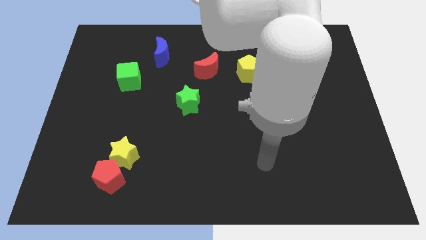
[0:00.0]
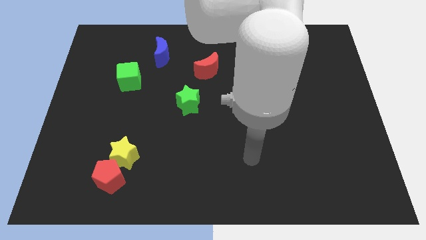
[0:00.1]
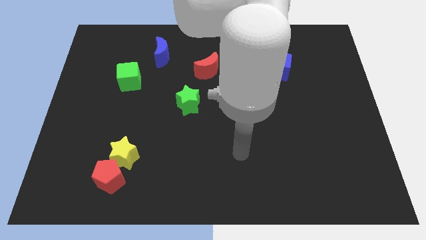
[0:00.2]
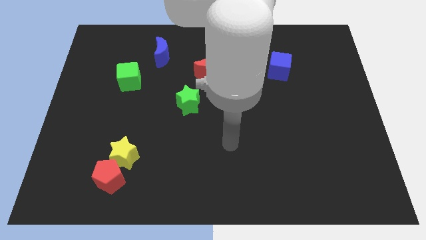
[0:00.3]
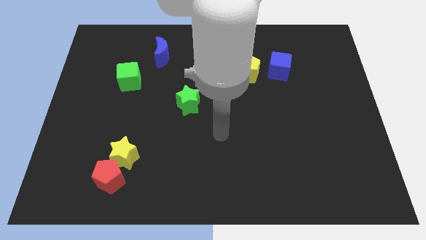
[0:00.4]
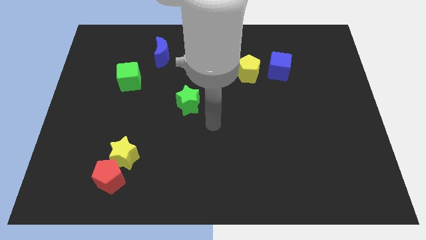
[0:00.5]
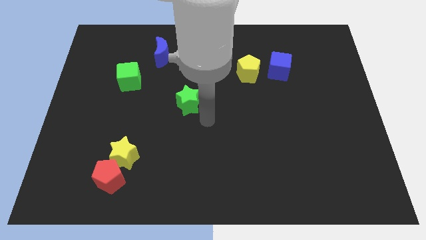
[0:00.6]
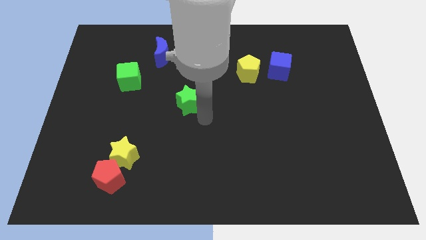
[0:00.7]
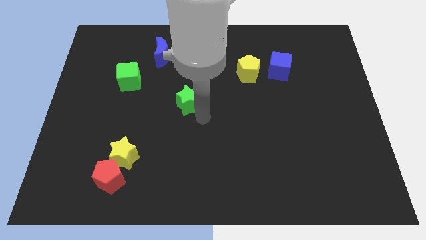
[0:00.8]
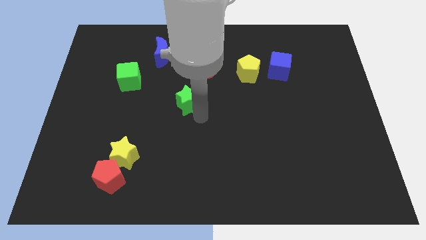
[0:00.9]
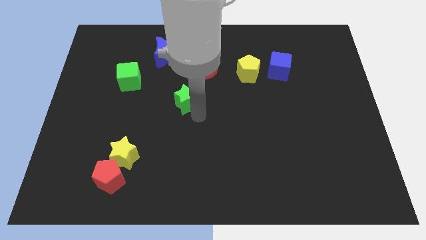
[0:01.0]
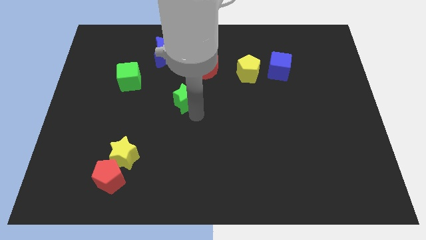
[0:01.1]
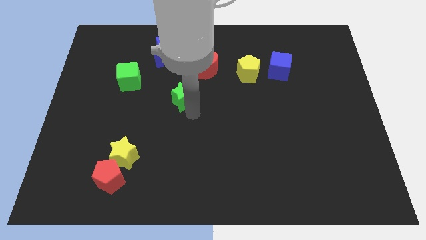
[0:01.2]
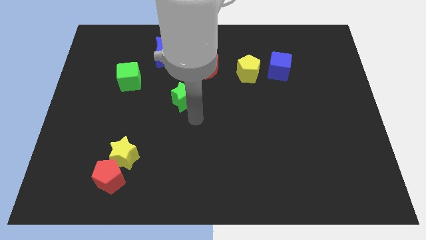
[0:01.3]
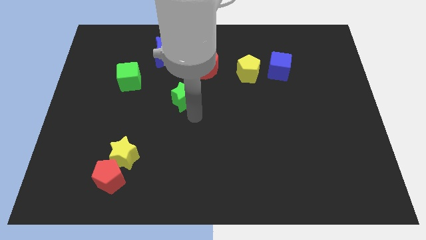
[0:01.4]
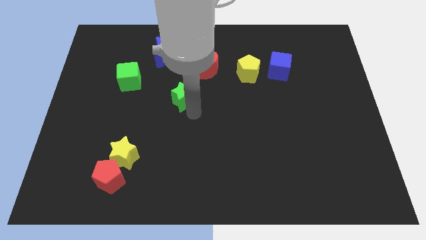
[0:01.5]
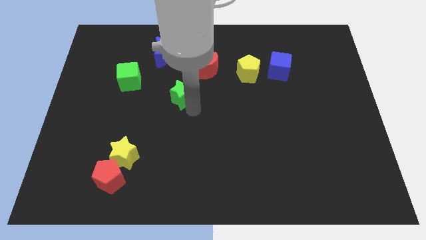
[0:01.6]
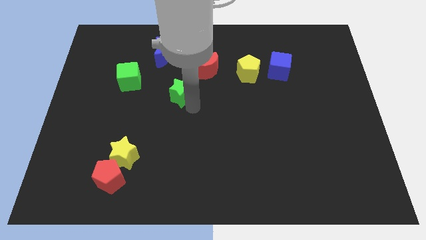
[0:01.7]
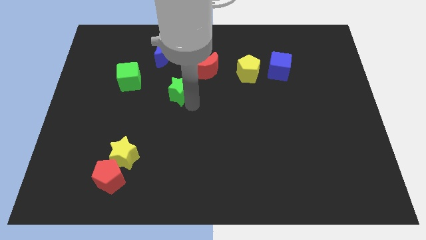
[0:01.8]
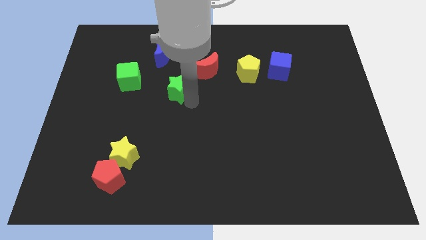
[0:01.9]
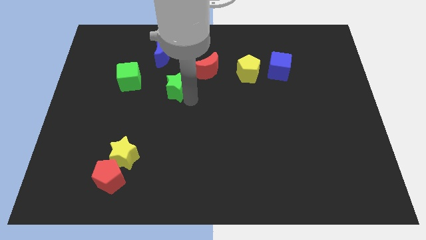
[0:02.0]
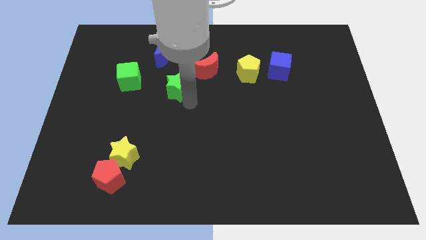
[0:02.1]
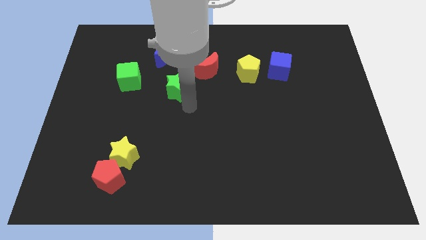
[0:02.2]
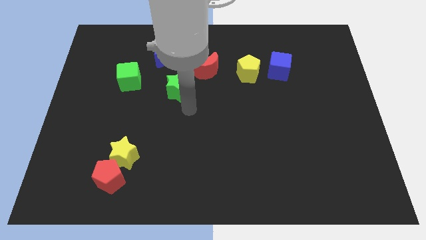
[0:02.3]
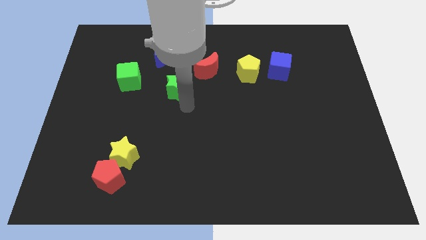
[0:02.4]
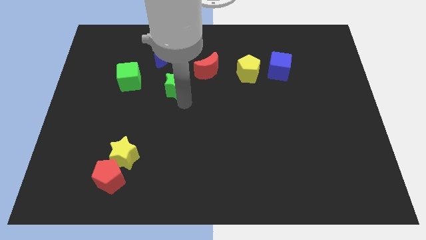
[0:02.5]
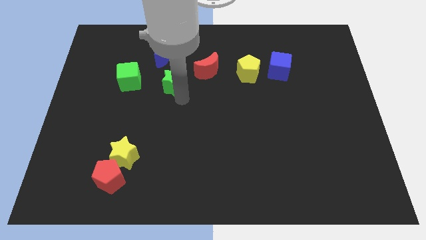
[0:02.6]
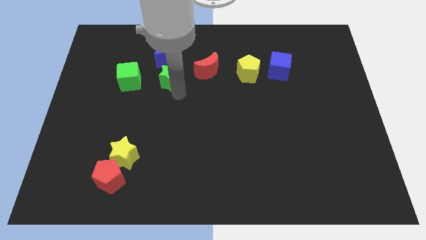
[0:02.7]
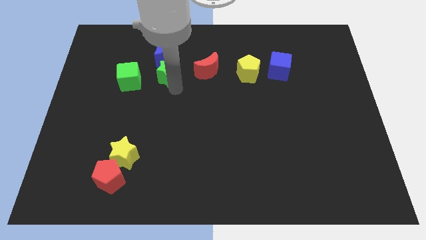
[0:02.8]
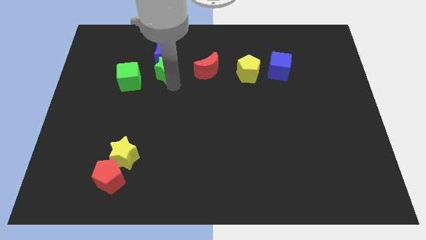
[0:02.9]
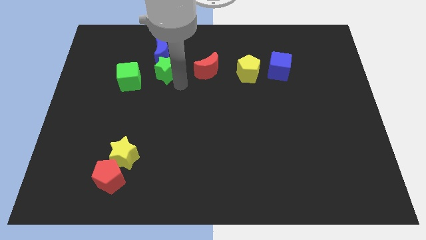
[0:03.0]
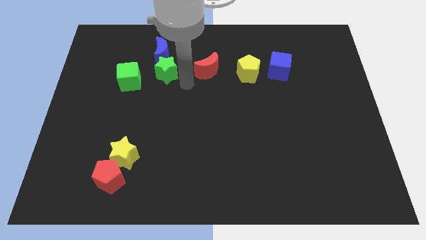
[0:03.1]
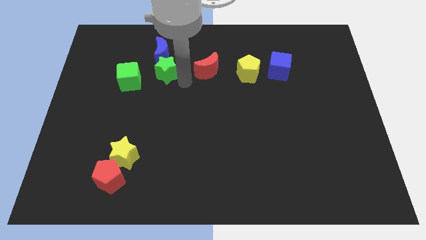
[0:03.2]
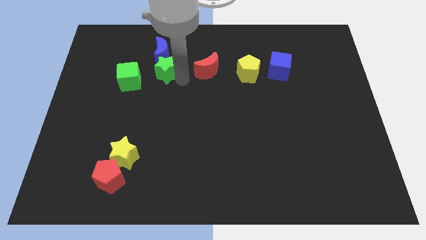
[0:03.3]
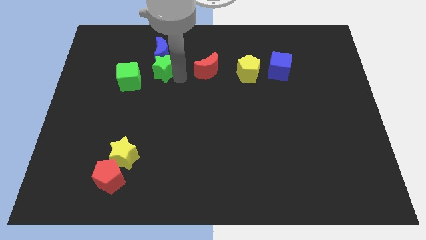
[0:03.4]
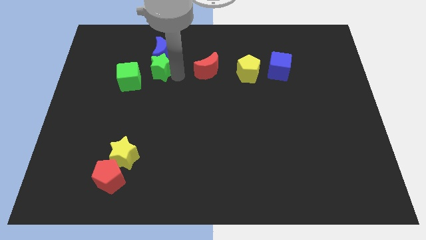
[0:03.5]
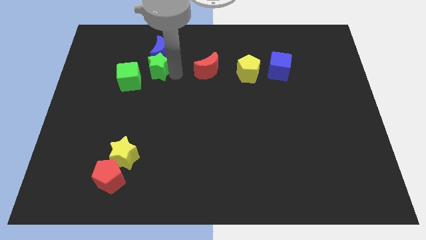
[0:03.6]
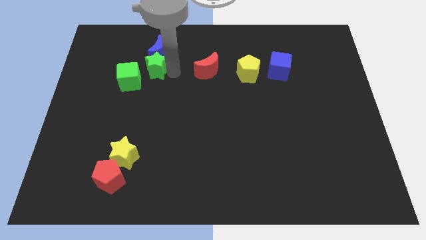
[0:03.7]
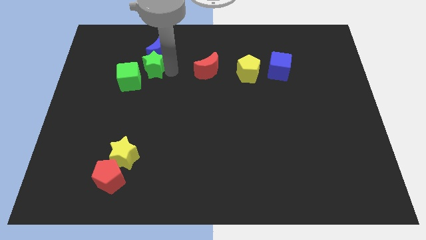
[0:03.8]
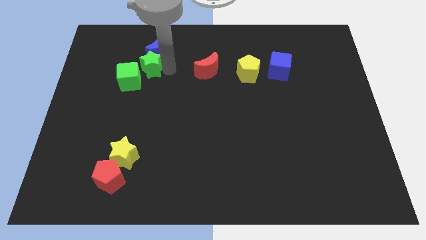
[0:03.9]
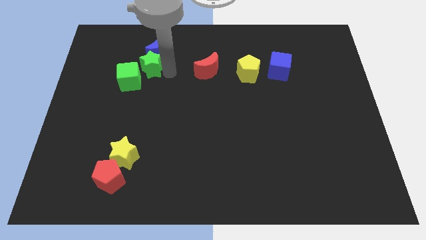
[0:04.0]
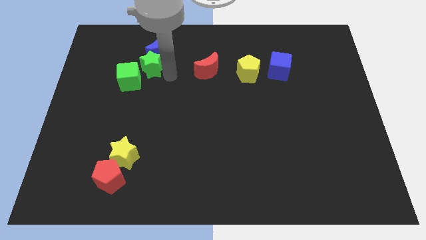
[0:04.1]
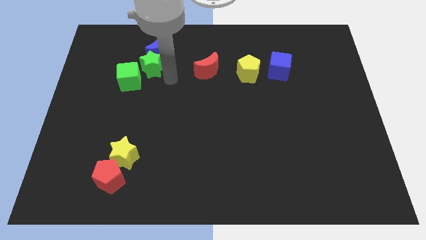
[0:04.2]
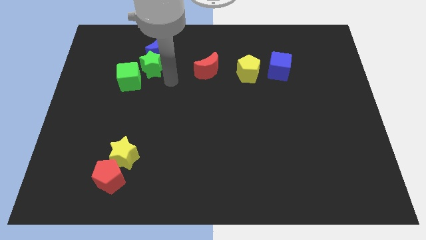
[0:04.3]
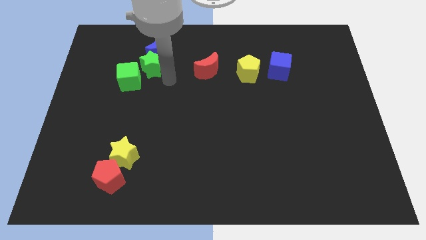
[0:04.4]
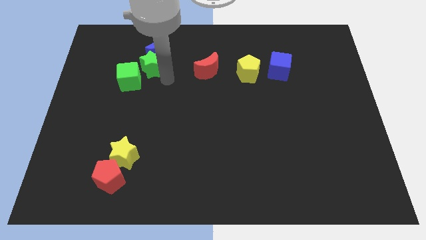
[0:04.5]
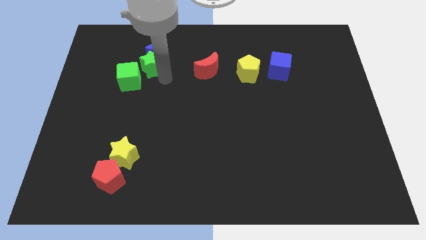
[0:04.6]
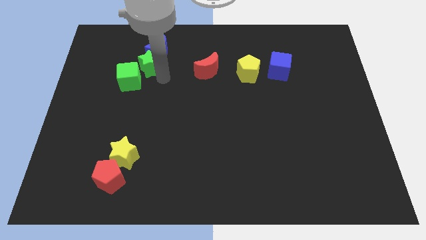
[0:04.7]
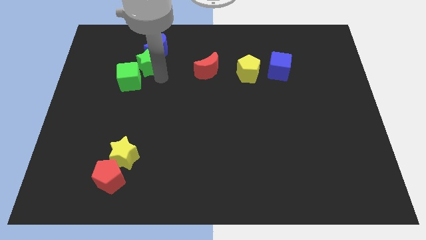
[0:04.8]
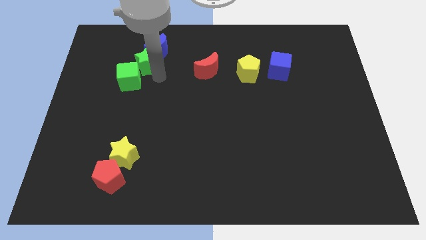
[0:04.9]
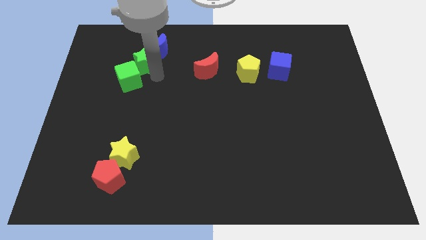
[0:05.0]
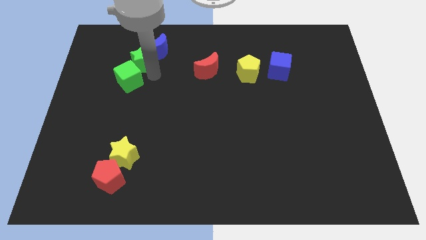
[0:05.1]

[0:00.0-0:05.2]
push the green star left of the blue moon

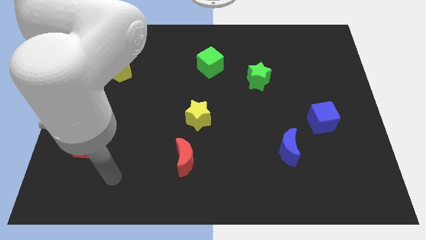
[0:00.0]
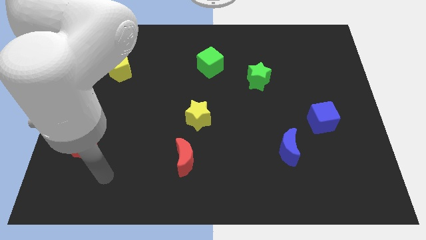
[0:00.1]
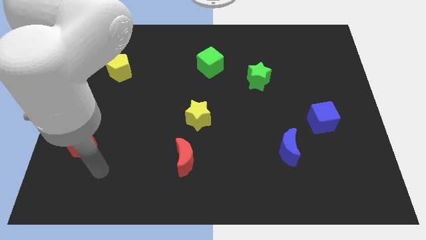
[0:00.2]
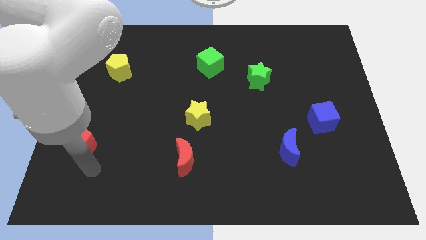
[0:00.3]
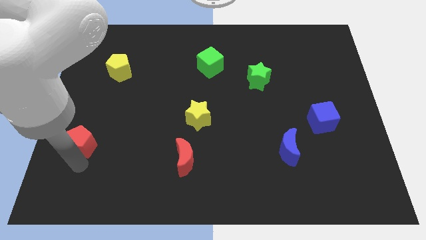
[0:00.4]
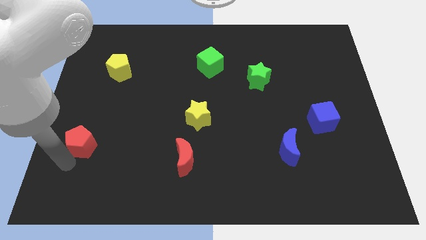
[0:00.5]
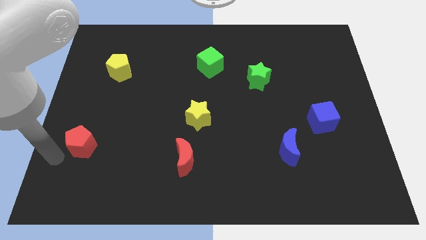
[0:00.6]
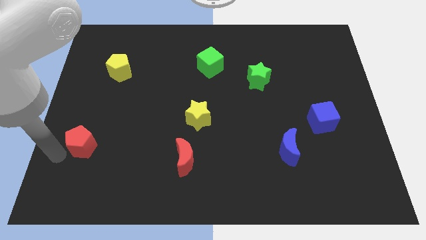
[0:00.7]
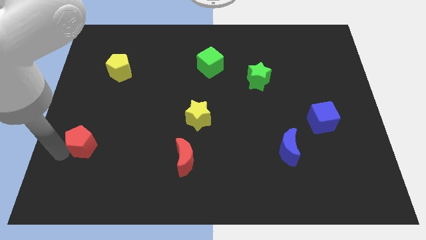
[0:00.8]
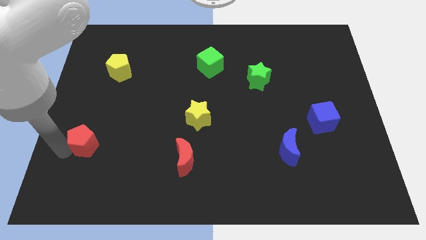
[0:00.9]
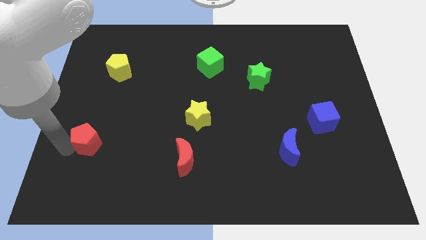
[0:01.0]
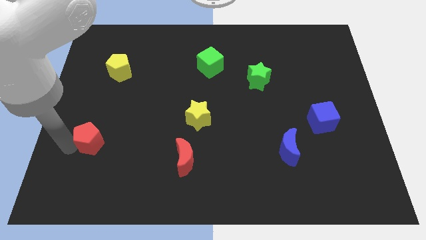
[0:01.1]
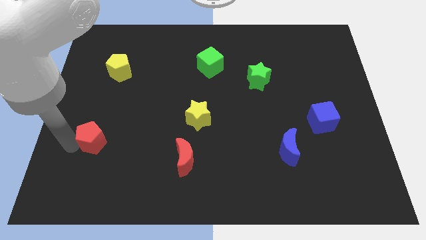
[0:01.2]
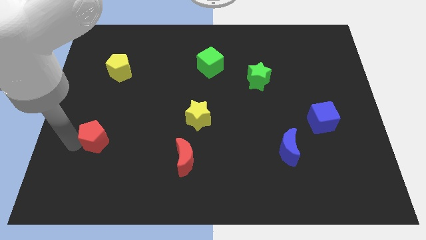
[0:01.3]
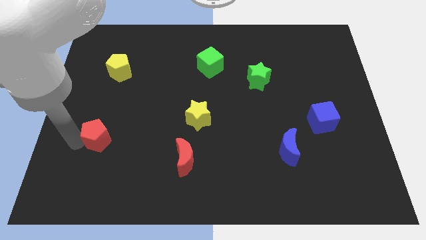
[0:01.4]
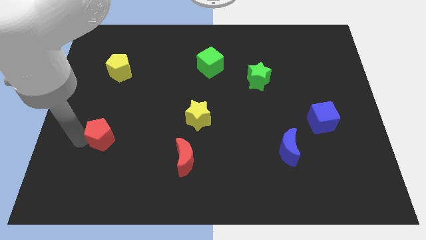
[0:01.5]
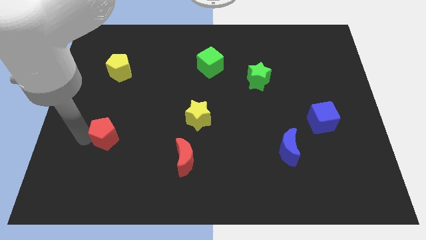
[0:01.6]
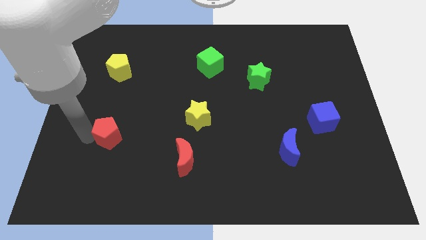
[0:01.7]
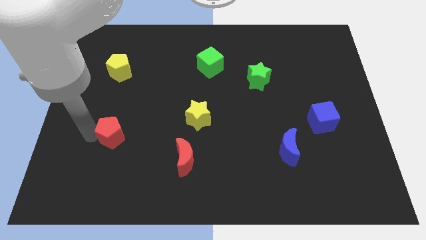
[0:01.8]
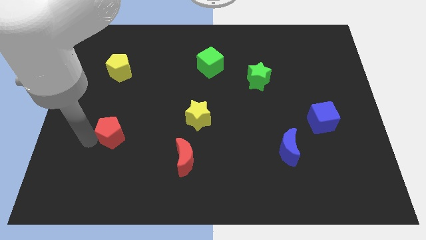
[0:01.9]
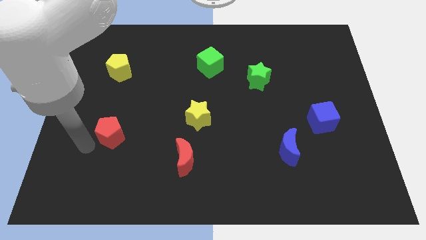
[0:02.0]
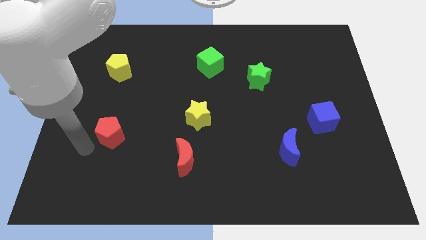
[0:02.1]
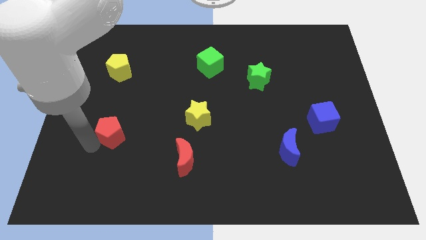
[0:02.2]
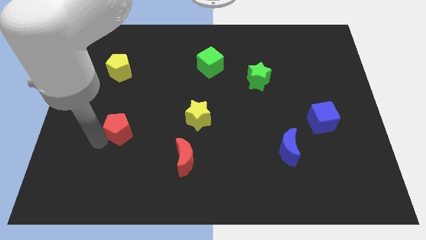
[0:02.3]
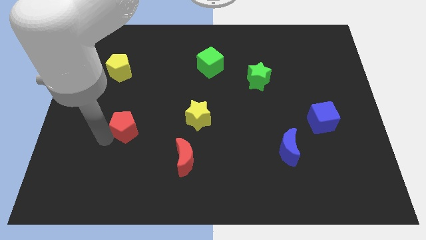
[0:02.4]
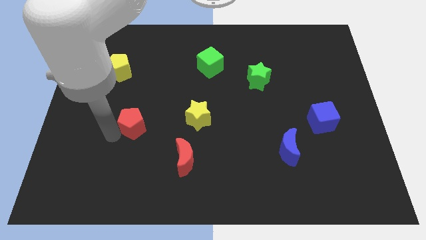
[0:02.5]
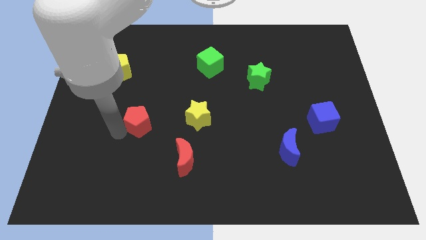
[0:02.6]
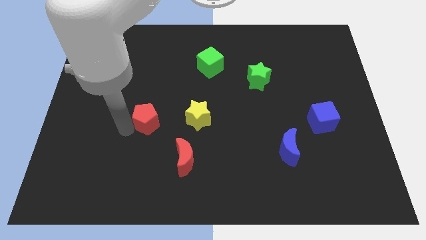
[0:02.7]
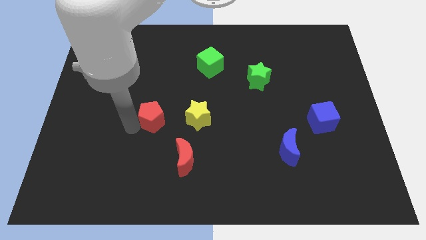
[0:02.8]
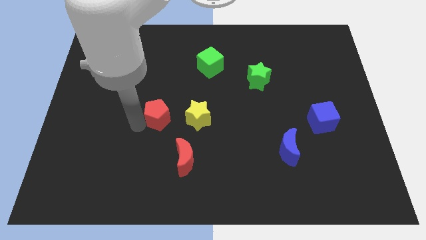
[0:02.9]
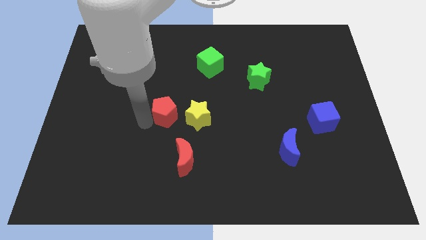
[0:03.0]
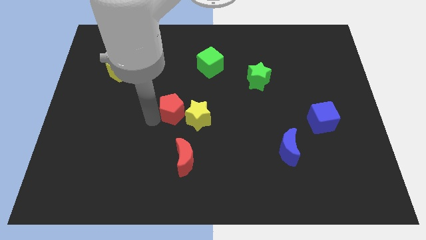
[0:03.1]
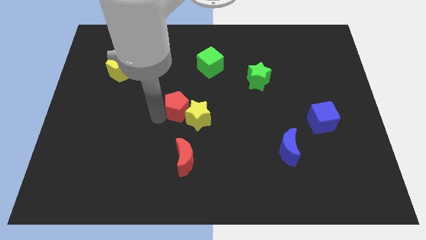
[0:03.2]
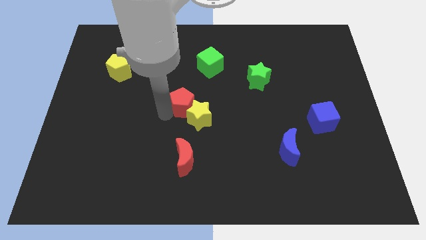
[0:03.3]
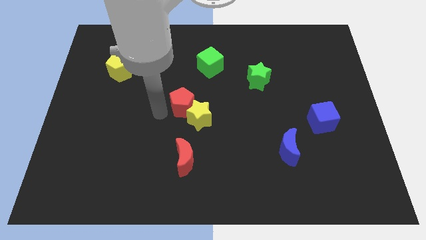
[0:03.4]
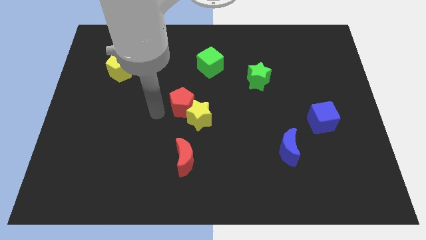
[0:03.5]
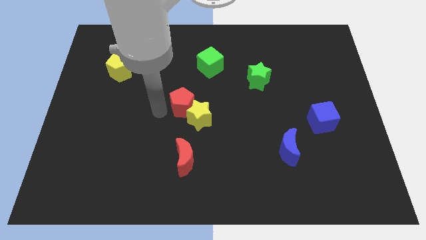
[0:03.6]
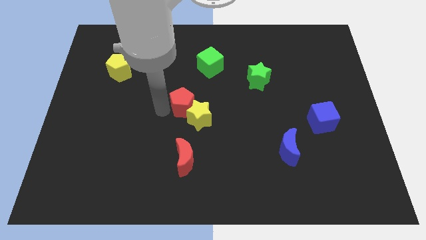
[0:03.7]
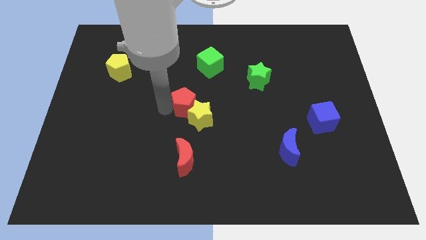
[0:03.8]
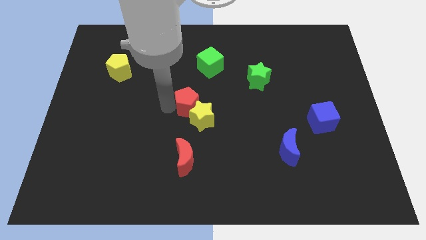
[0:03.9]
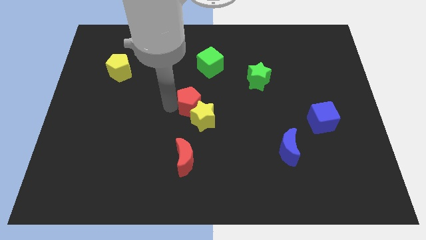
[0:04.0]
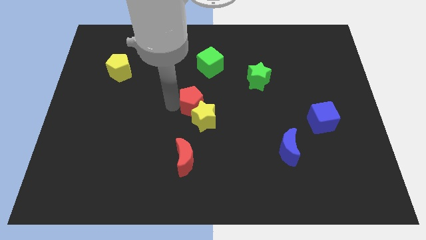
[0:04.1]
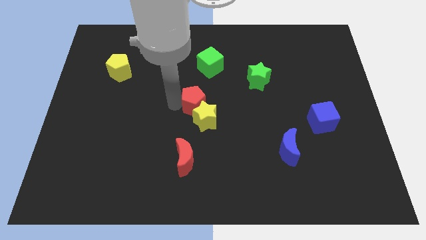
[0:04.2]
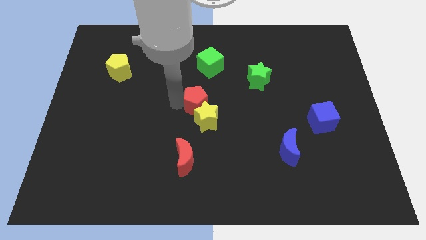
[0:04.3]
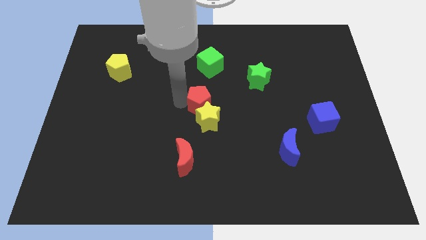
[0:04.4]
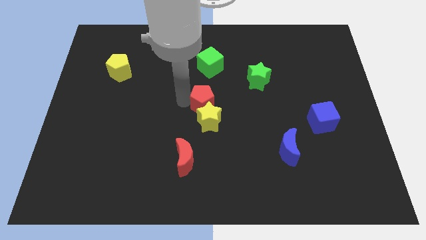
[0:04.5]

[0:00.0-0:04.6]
push the red pentagon diagonally up and to the right of the yellow star
